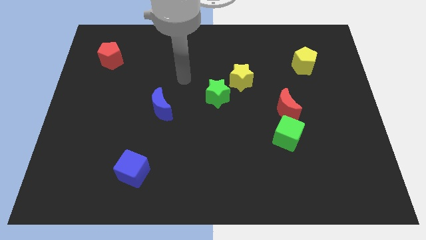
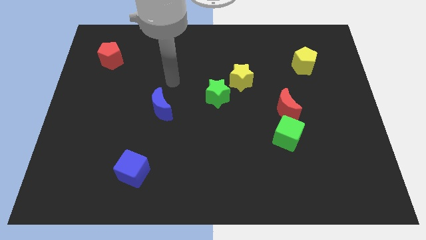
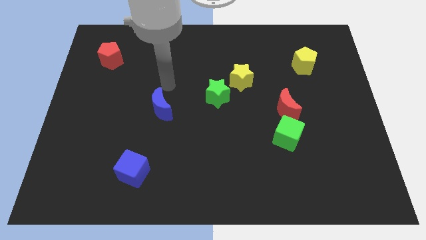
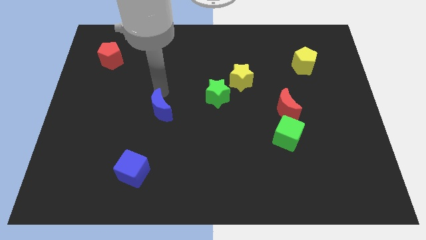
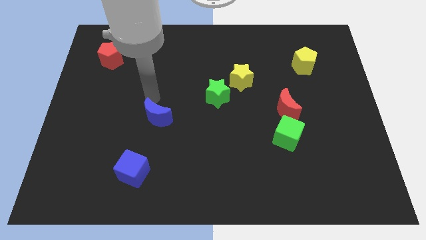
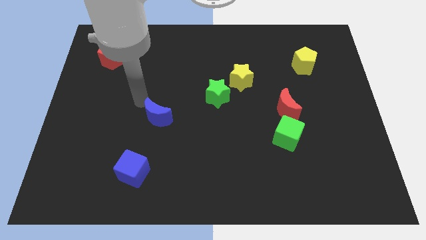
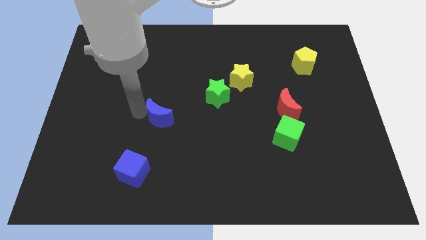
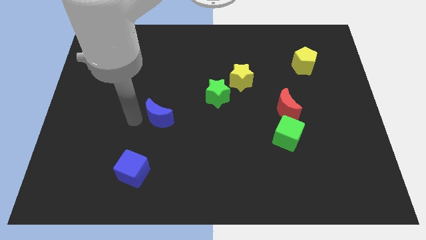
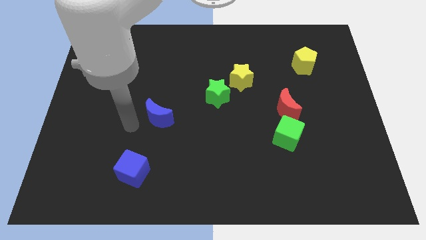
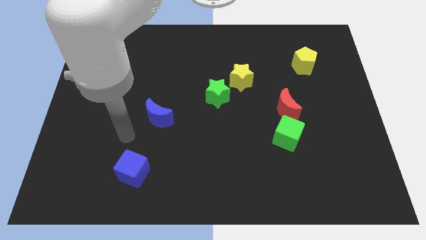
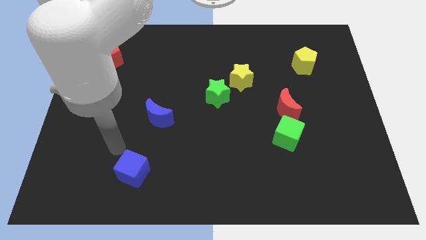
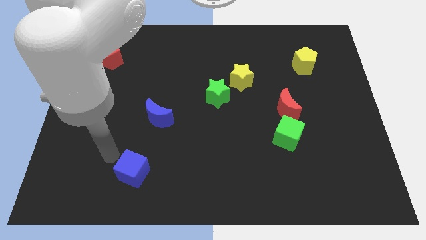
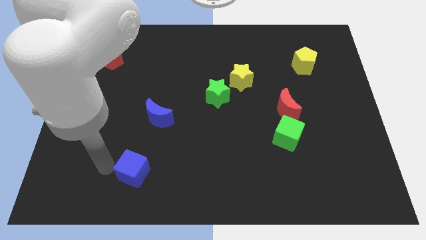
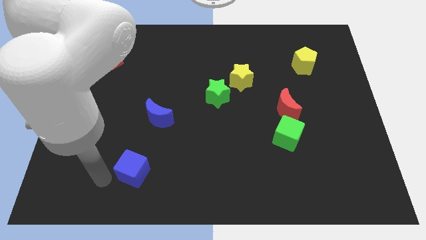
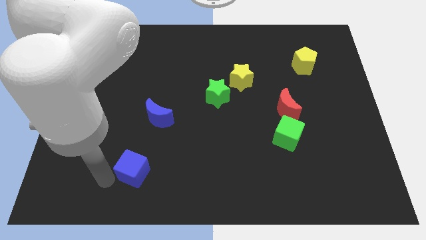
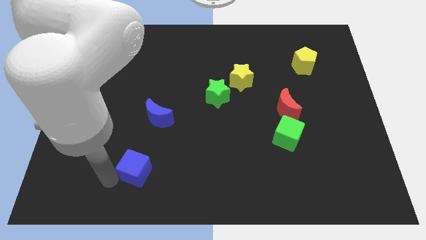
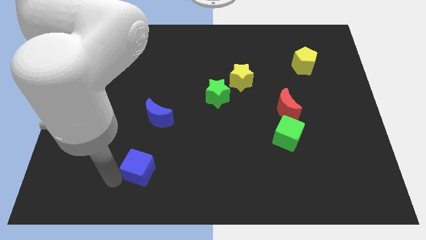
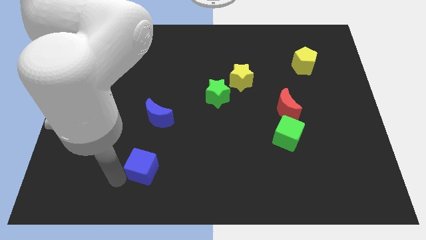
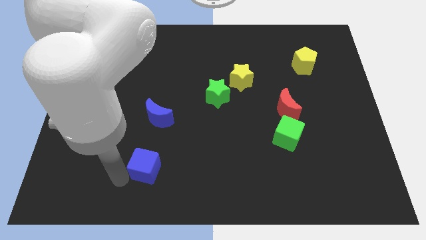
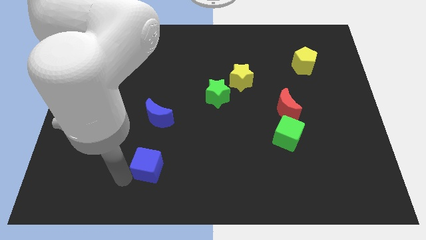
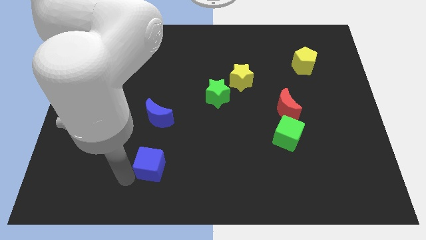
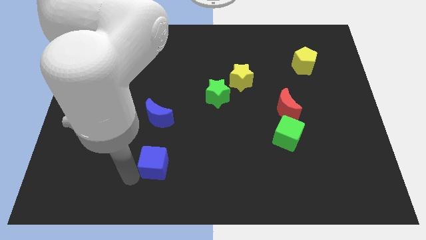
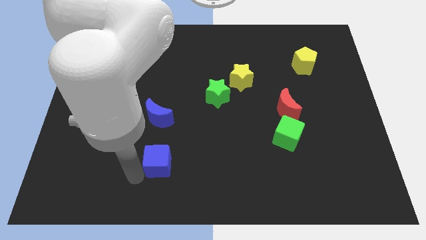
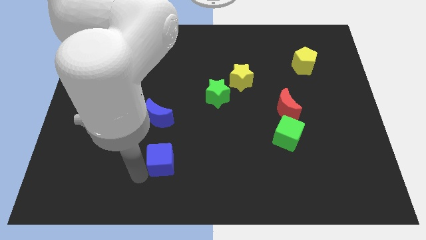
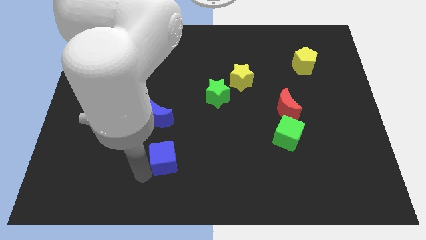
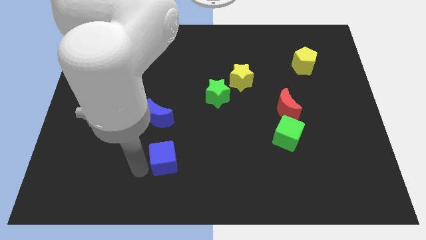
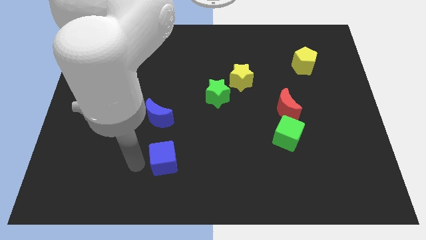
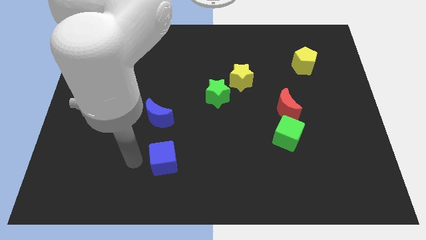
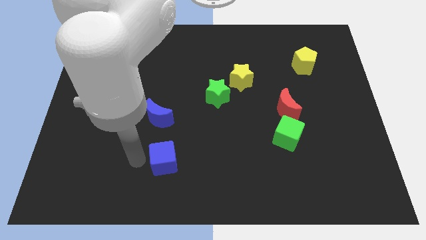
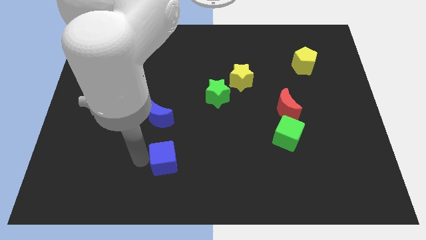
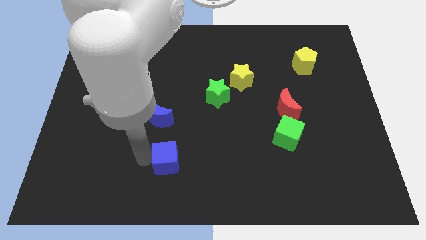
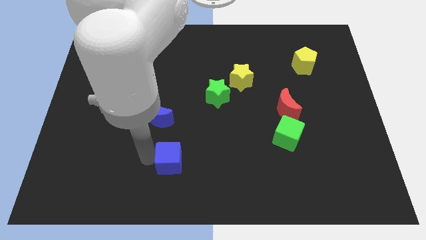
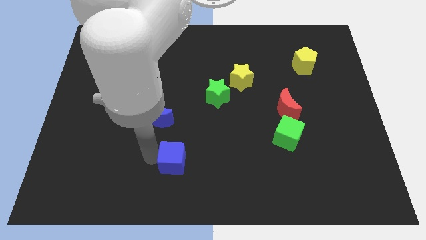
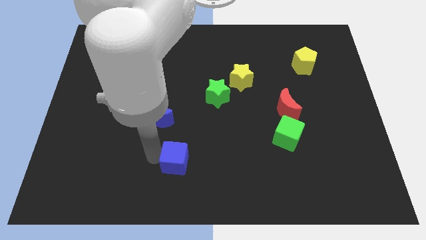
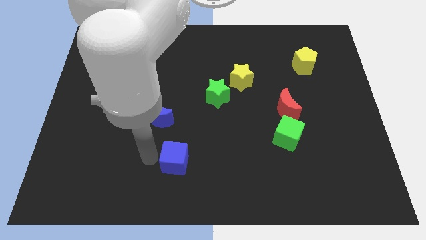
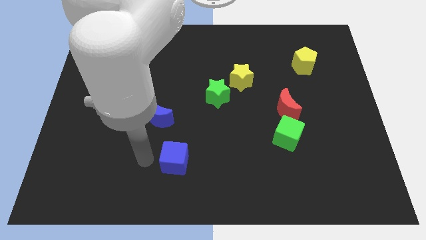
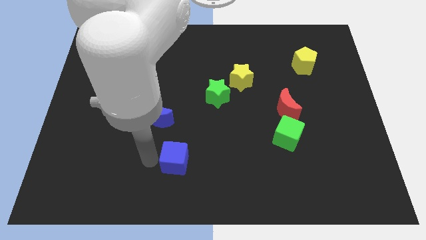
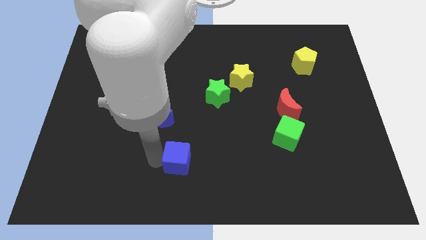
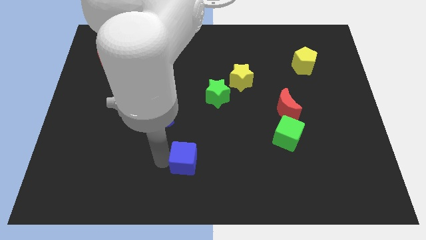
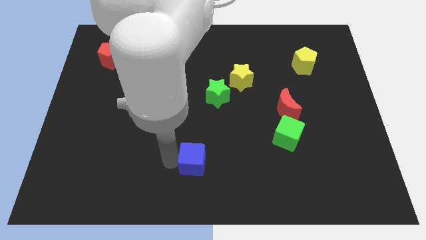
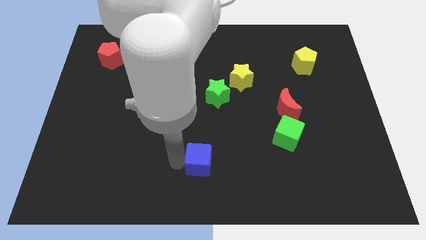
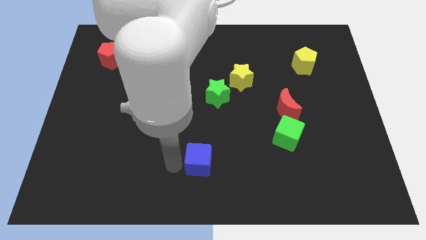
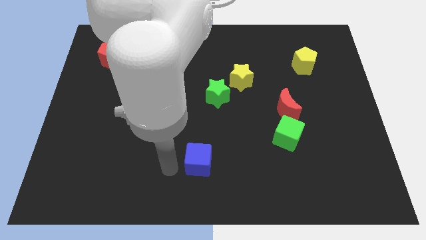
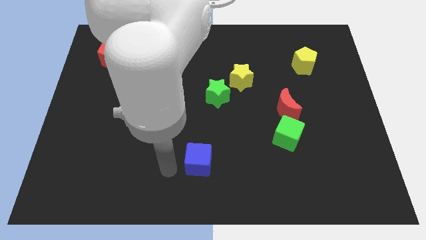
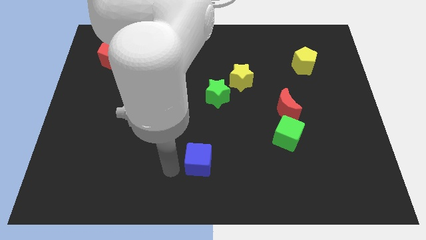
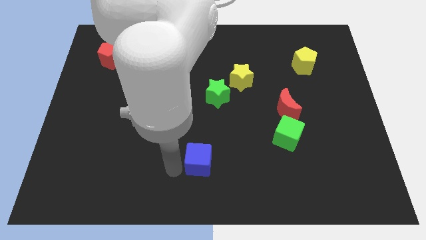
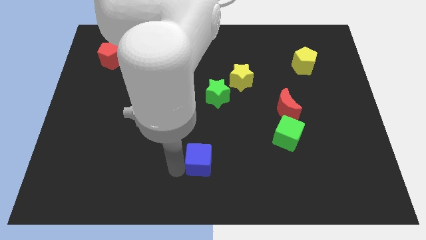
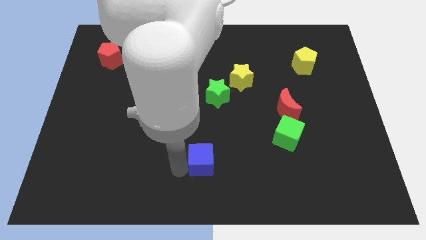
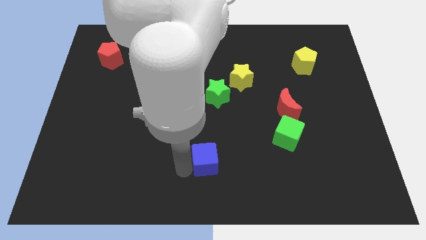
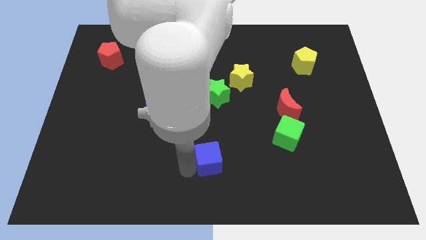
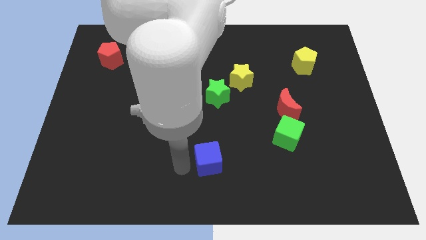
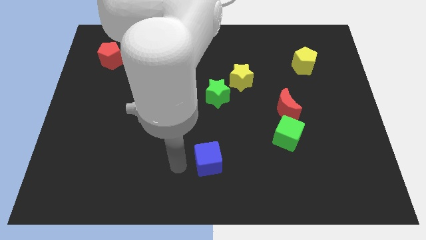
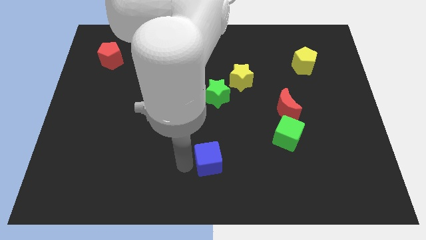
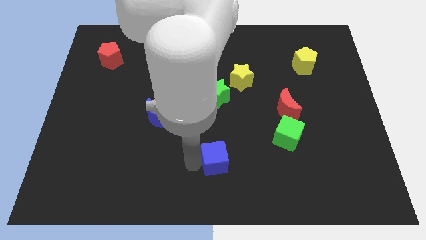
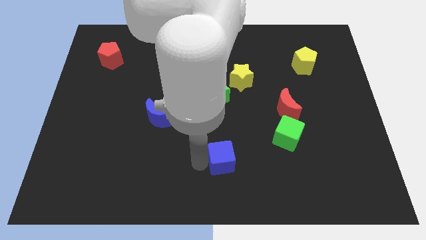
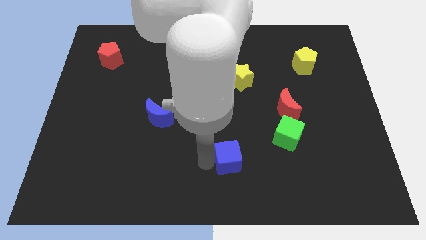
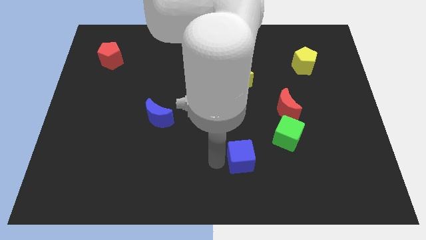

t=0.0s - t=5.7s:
put the blue cube to the bottom left of the green cube
